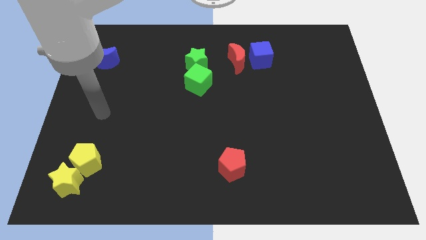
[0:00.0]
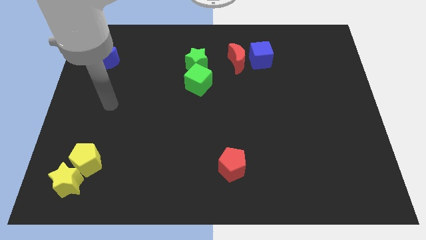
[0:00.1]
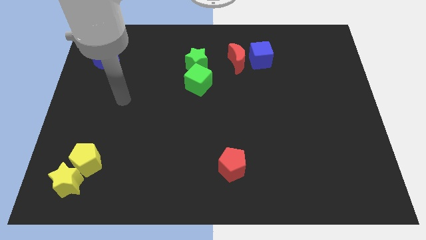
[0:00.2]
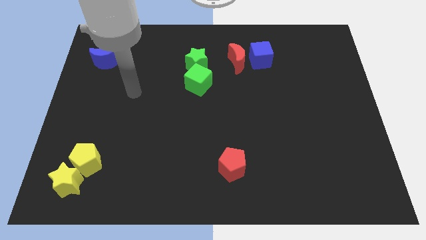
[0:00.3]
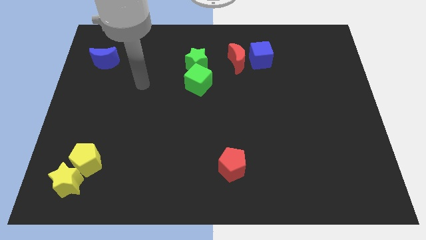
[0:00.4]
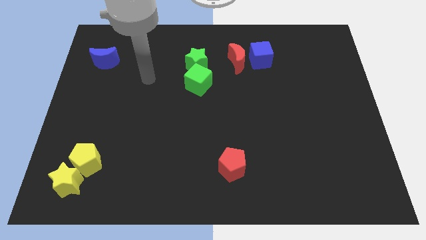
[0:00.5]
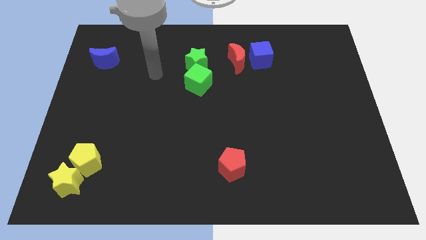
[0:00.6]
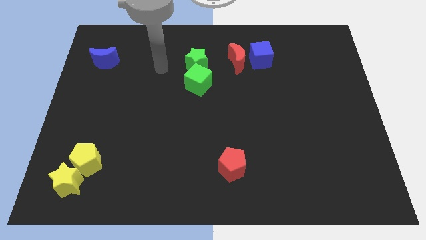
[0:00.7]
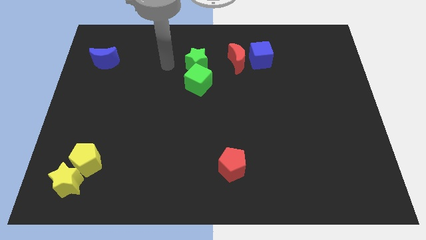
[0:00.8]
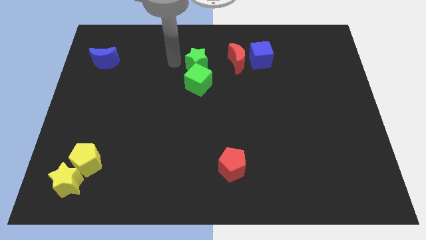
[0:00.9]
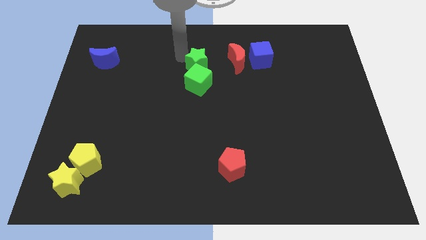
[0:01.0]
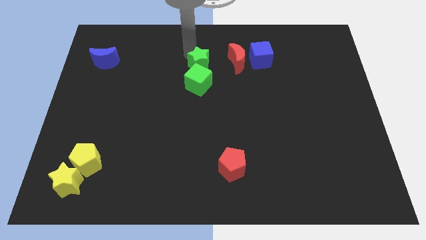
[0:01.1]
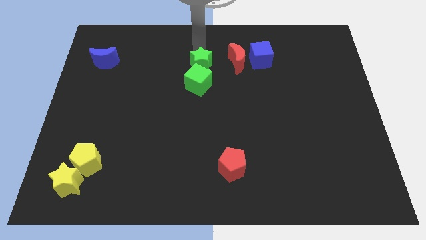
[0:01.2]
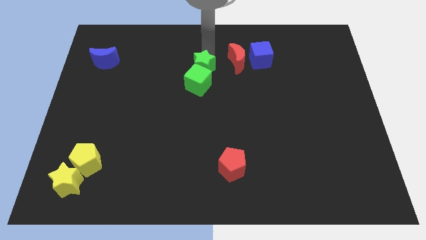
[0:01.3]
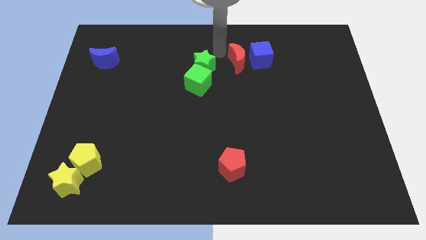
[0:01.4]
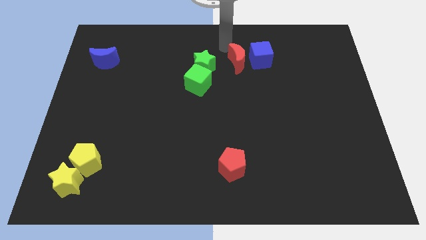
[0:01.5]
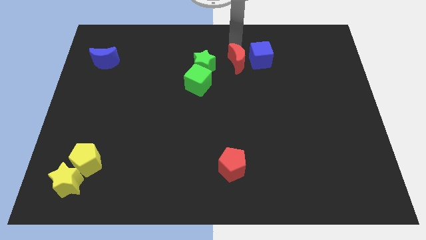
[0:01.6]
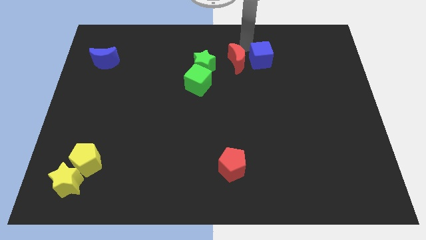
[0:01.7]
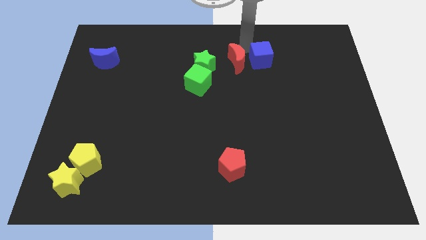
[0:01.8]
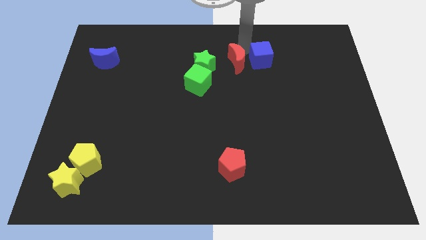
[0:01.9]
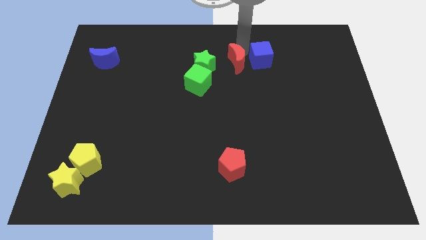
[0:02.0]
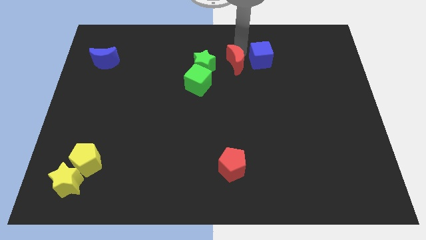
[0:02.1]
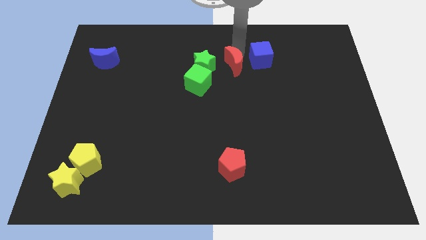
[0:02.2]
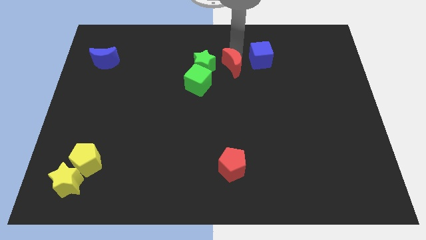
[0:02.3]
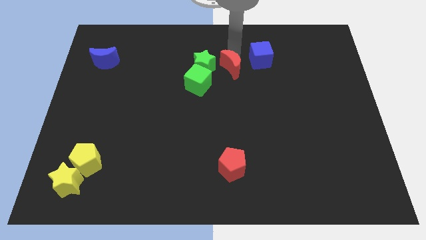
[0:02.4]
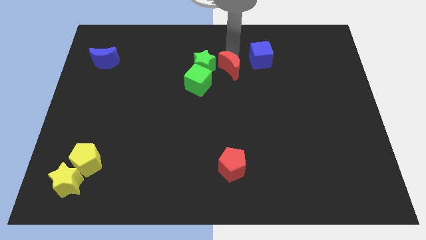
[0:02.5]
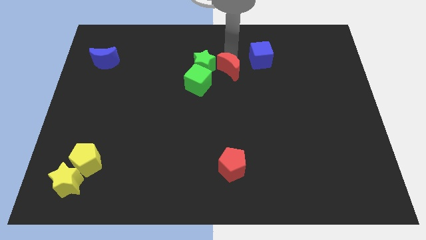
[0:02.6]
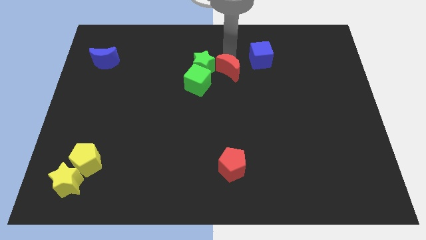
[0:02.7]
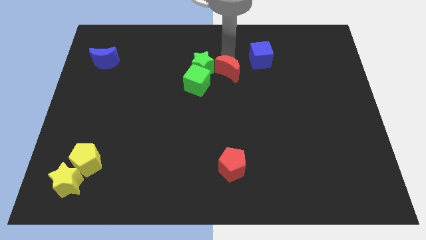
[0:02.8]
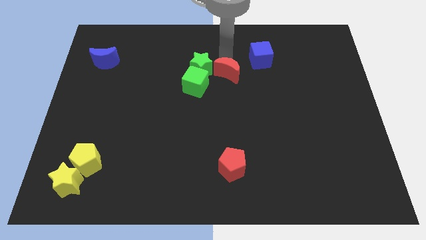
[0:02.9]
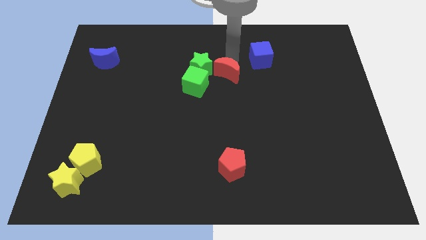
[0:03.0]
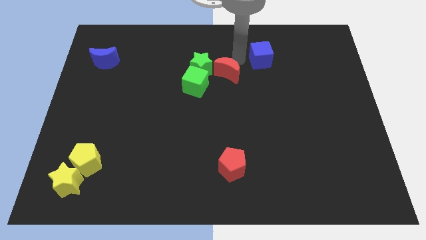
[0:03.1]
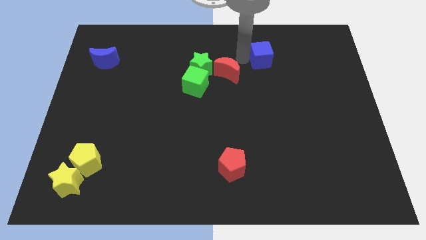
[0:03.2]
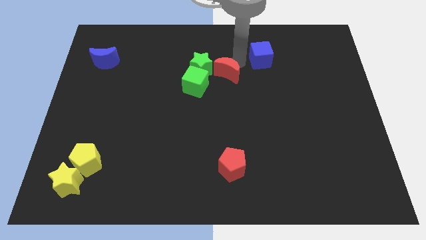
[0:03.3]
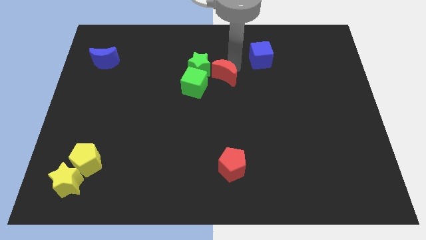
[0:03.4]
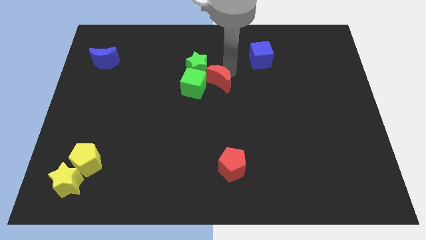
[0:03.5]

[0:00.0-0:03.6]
move the red moon downwards and then to the left a little bit

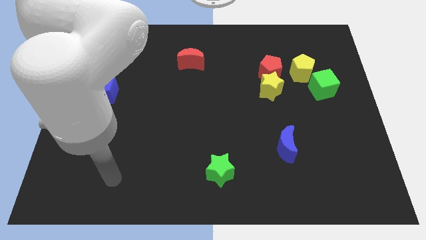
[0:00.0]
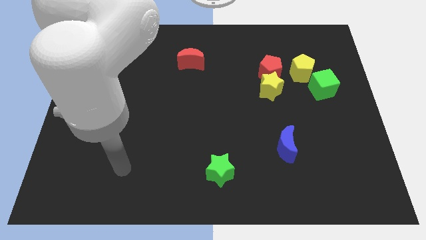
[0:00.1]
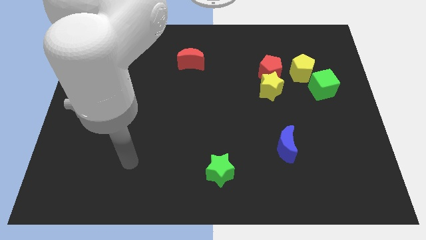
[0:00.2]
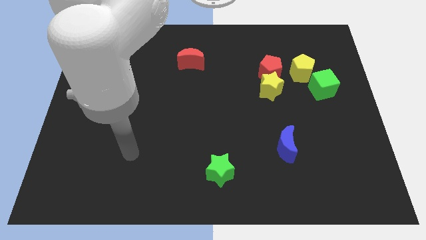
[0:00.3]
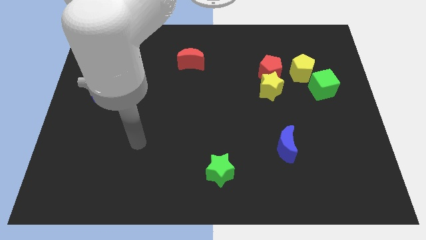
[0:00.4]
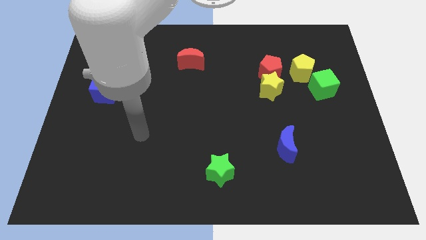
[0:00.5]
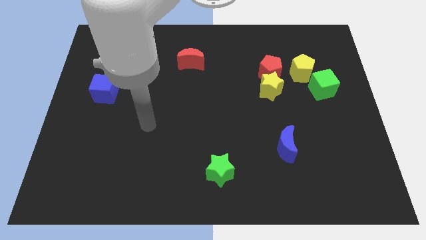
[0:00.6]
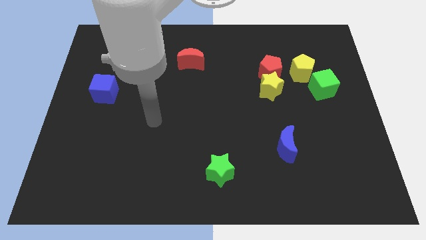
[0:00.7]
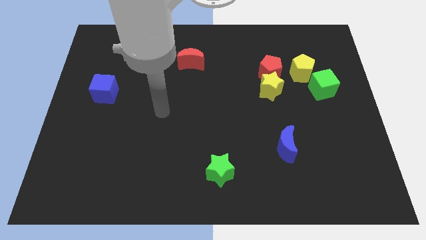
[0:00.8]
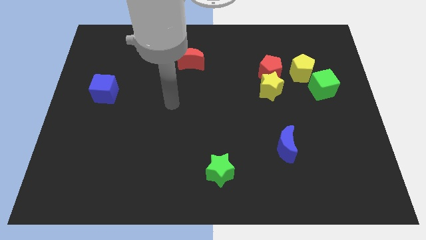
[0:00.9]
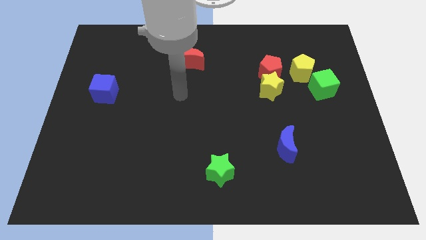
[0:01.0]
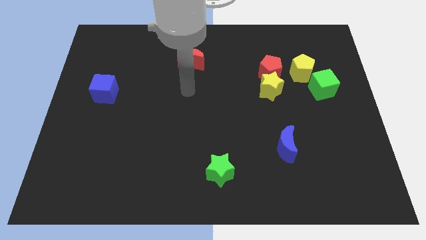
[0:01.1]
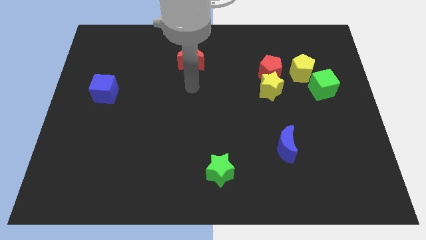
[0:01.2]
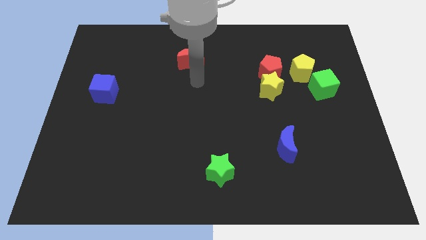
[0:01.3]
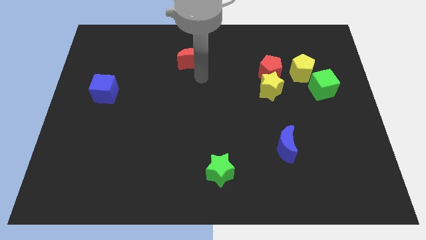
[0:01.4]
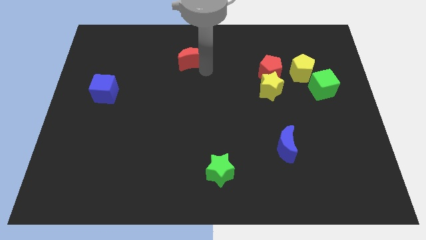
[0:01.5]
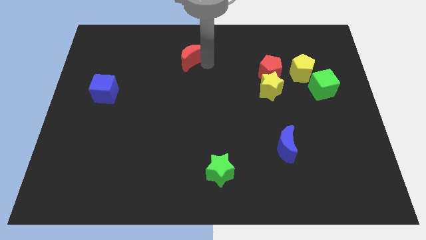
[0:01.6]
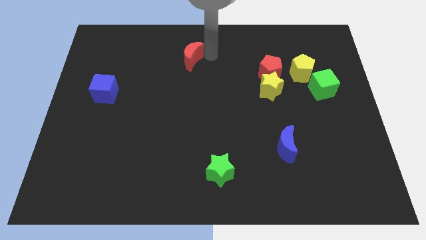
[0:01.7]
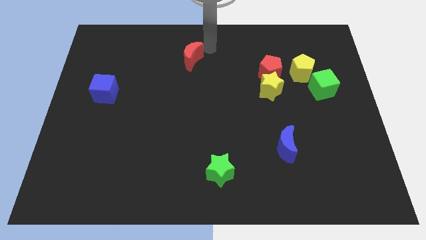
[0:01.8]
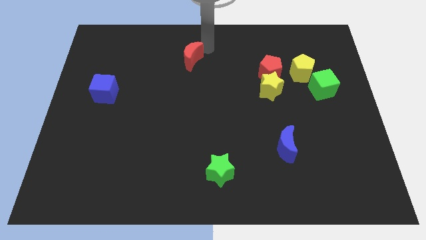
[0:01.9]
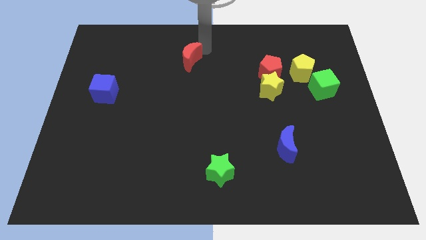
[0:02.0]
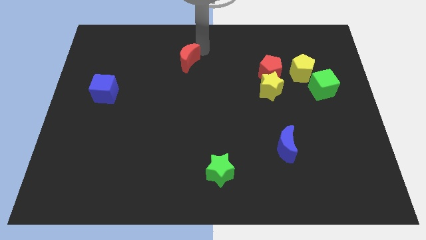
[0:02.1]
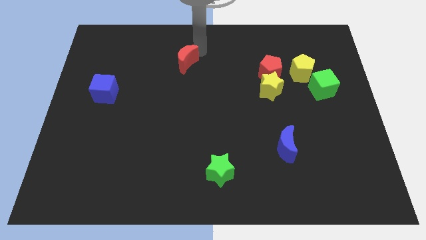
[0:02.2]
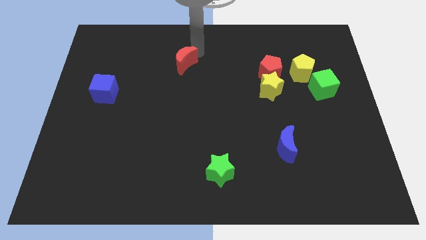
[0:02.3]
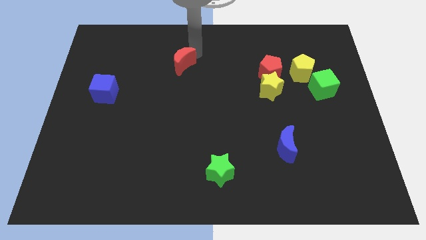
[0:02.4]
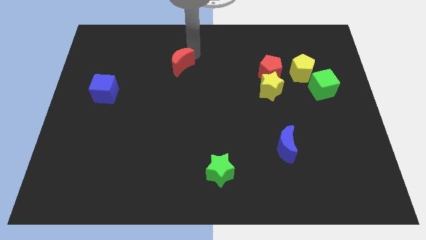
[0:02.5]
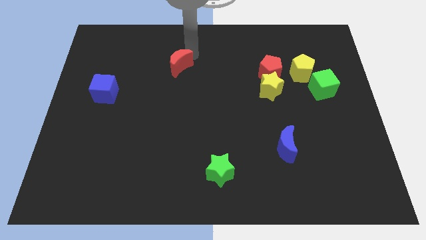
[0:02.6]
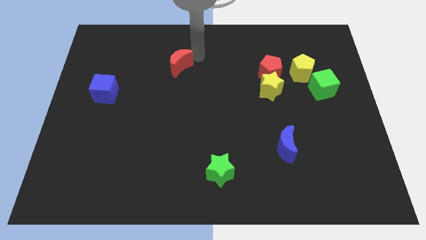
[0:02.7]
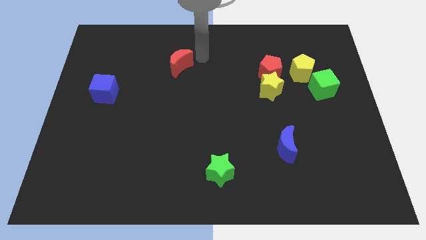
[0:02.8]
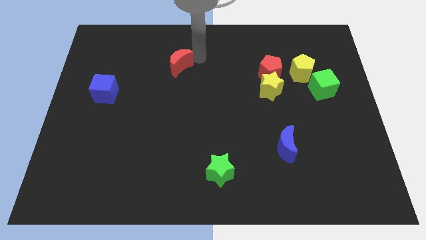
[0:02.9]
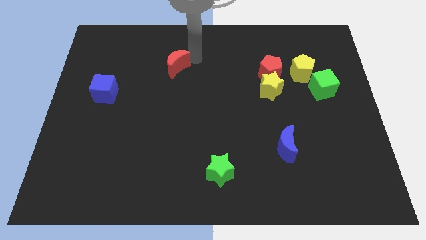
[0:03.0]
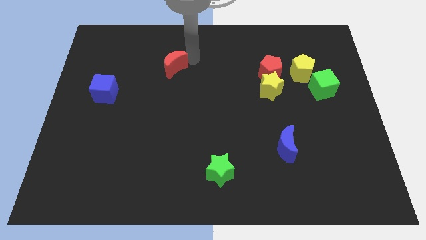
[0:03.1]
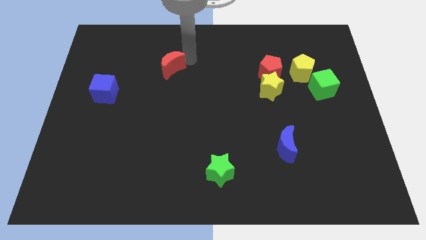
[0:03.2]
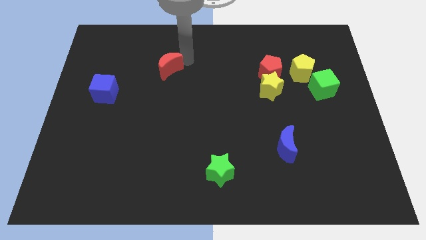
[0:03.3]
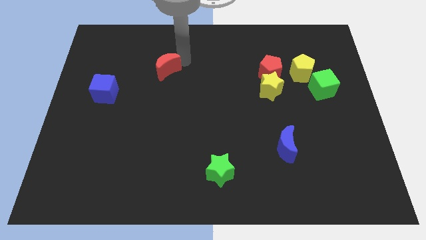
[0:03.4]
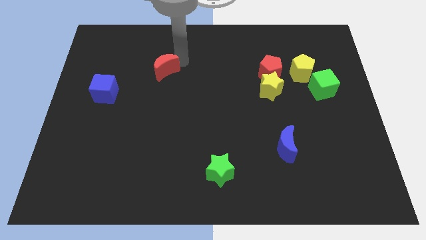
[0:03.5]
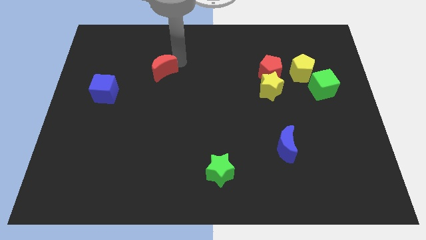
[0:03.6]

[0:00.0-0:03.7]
push the red moon a bit diagonally down and to the left

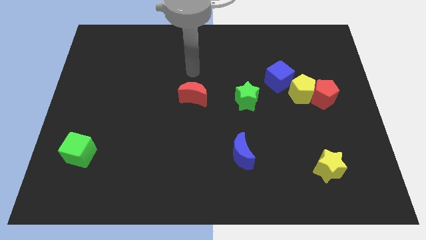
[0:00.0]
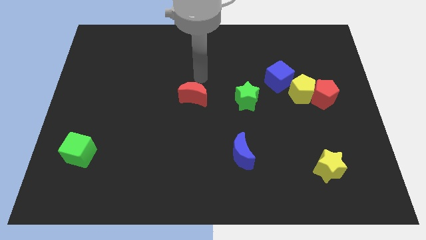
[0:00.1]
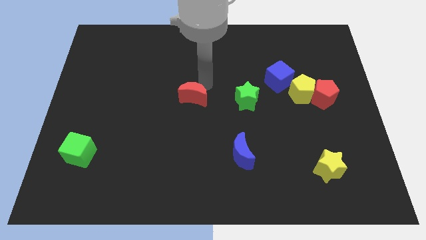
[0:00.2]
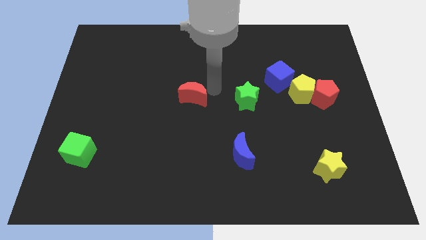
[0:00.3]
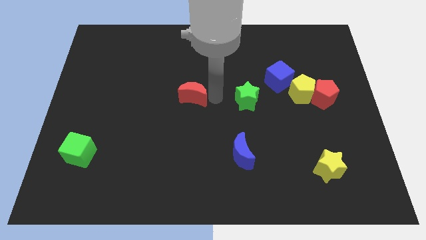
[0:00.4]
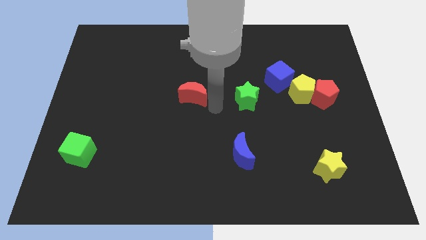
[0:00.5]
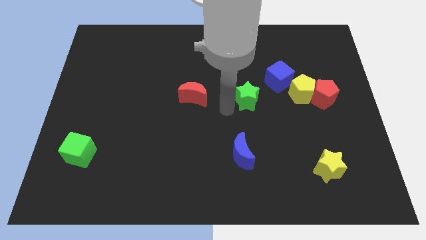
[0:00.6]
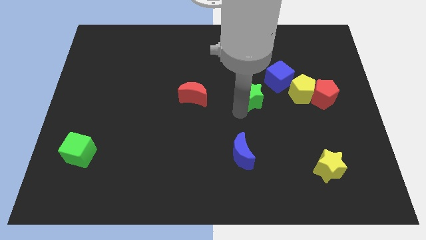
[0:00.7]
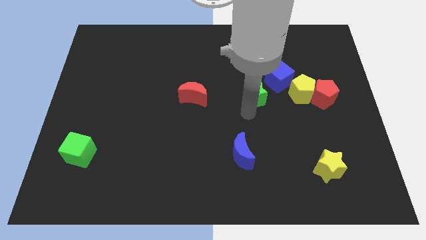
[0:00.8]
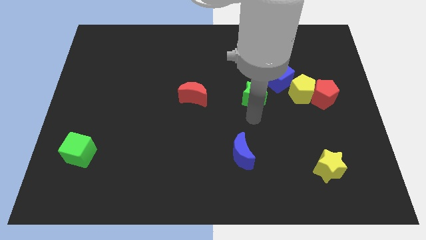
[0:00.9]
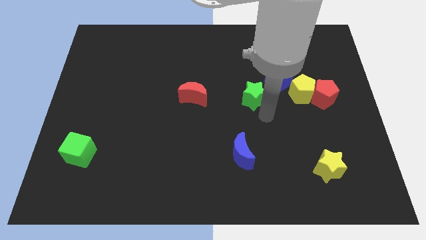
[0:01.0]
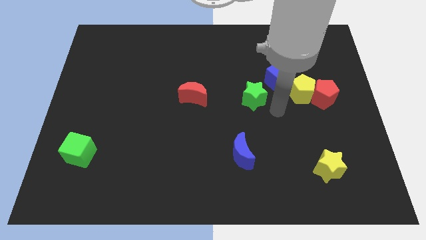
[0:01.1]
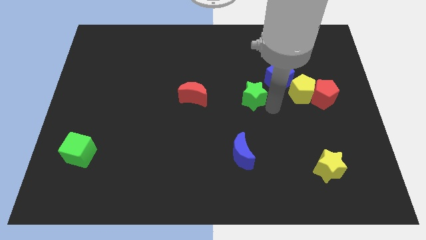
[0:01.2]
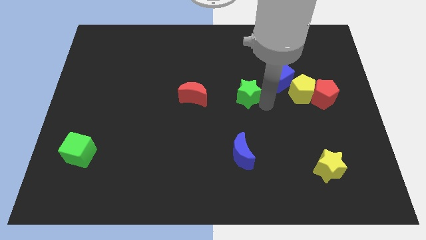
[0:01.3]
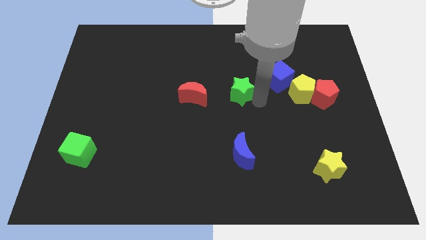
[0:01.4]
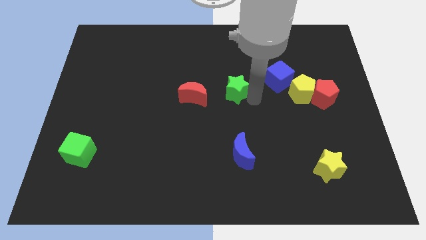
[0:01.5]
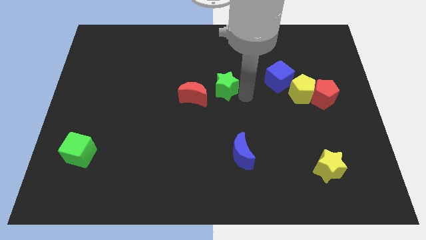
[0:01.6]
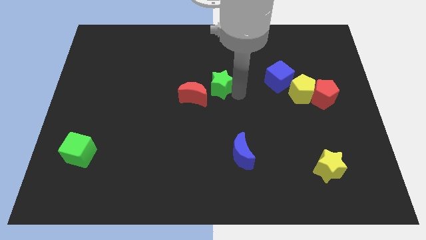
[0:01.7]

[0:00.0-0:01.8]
push the green star diagonally up and to the left a little bit
